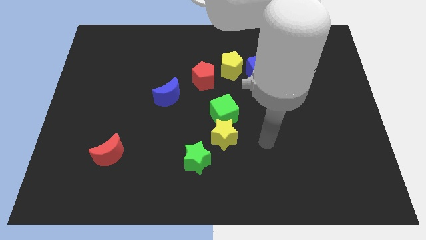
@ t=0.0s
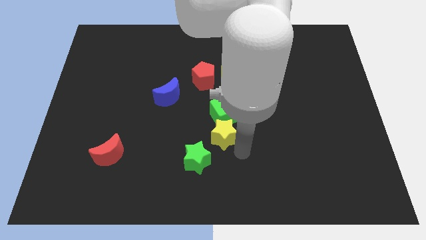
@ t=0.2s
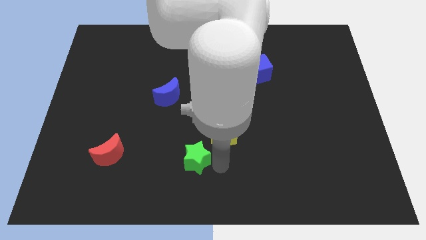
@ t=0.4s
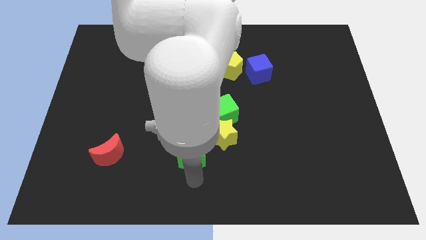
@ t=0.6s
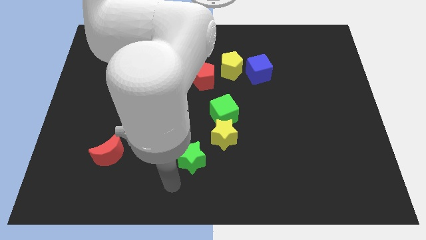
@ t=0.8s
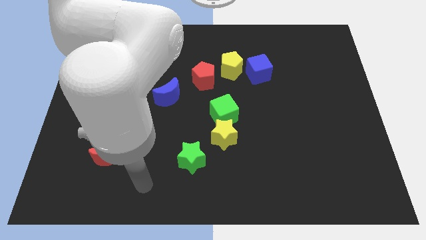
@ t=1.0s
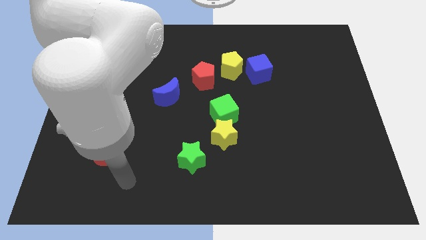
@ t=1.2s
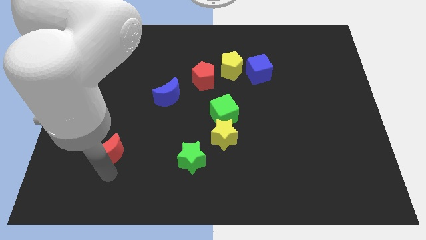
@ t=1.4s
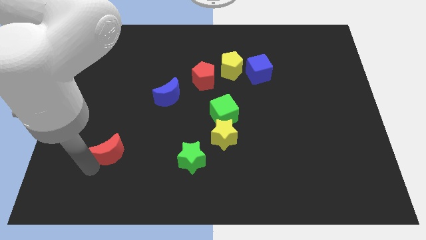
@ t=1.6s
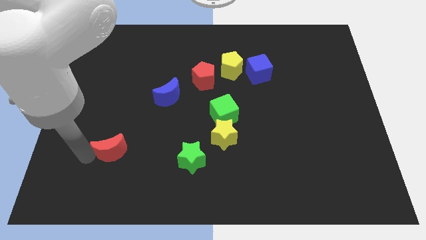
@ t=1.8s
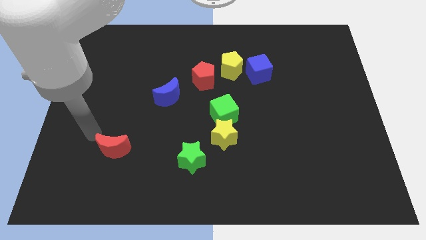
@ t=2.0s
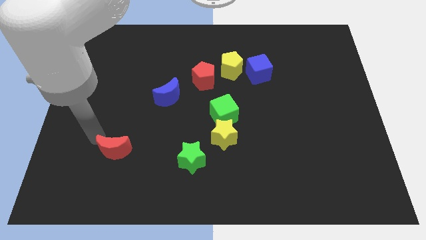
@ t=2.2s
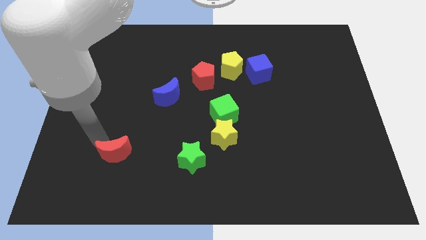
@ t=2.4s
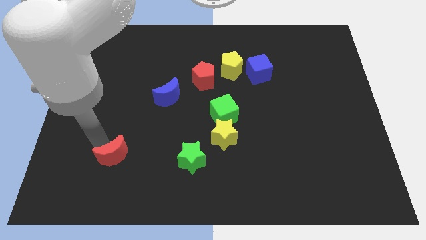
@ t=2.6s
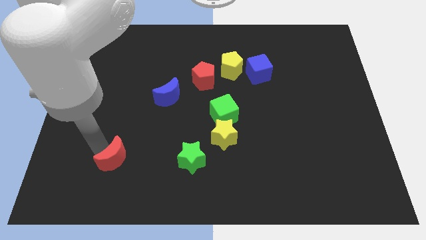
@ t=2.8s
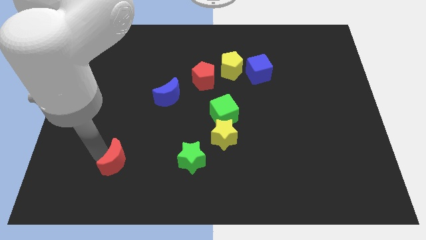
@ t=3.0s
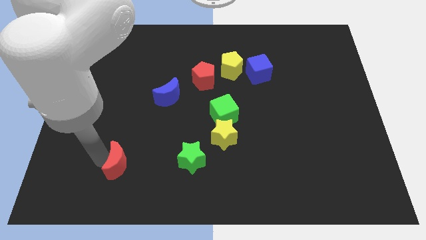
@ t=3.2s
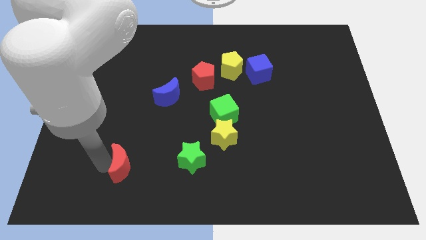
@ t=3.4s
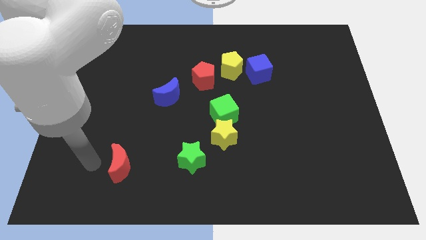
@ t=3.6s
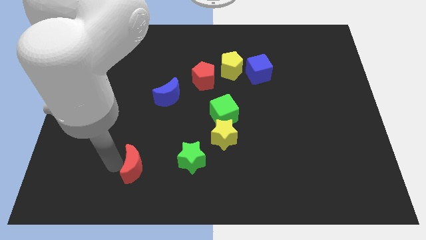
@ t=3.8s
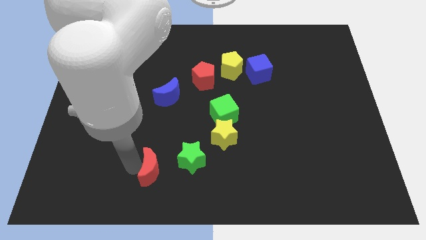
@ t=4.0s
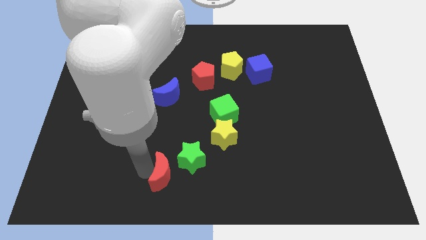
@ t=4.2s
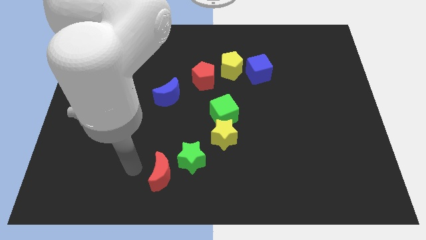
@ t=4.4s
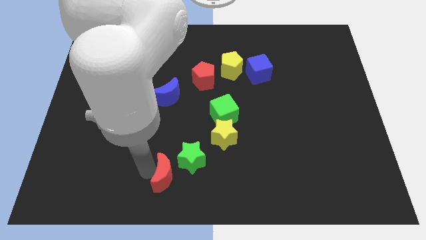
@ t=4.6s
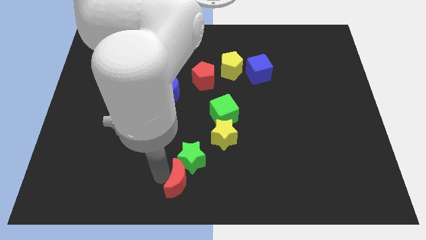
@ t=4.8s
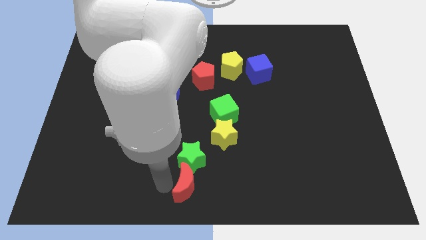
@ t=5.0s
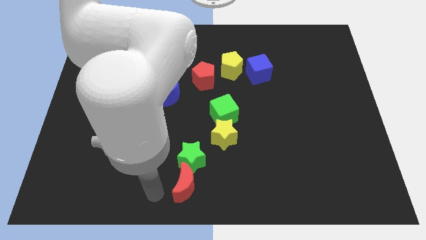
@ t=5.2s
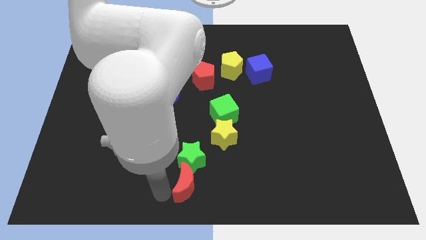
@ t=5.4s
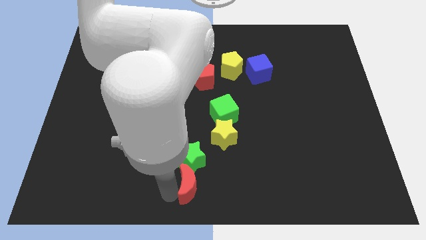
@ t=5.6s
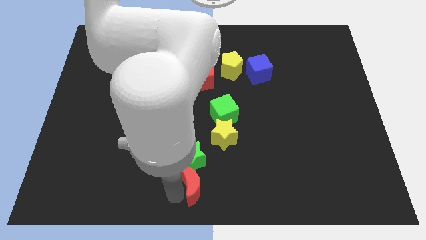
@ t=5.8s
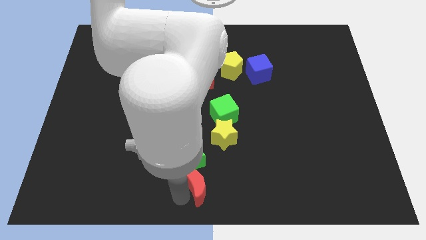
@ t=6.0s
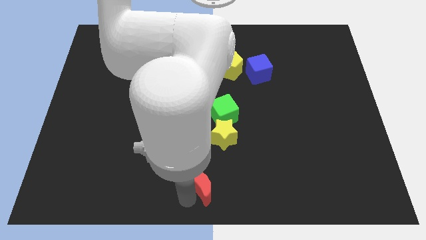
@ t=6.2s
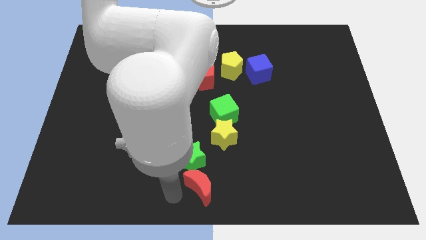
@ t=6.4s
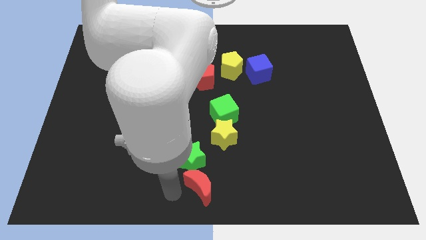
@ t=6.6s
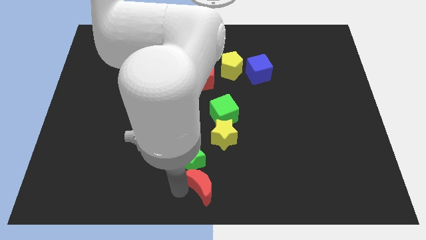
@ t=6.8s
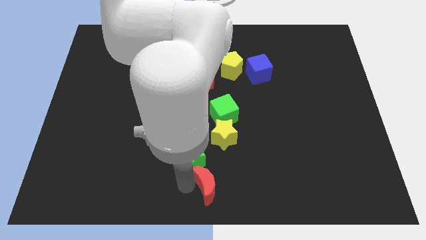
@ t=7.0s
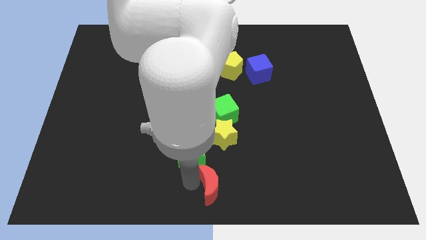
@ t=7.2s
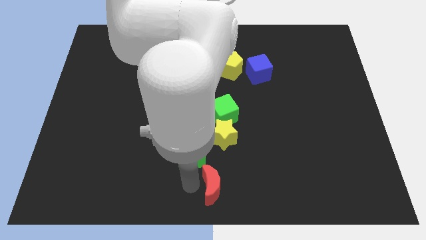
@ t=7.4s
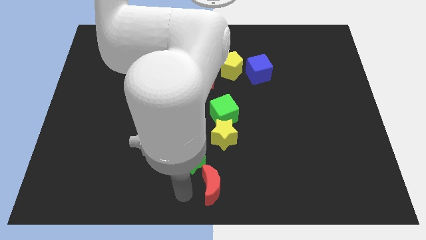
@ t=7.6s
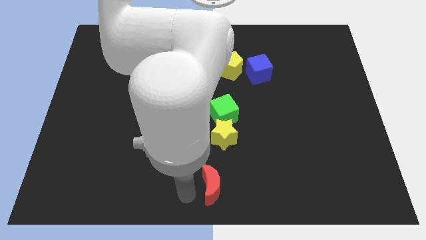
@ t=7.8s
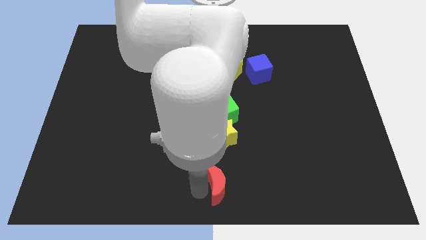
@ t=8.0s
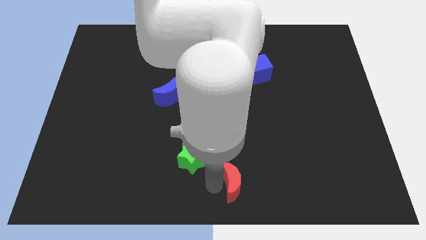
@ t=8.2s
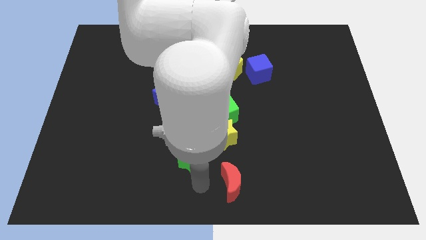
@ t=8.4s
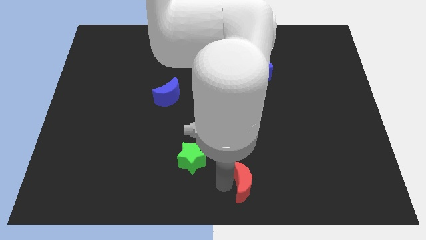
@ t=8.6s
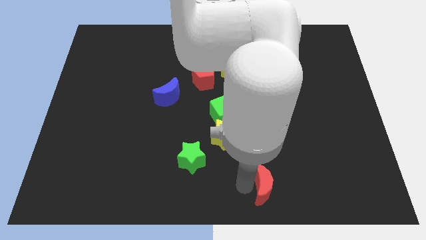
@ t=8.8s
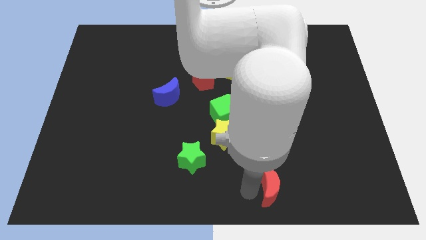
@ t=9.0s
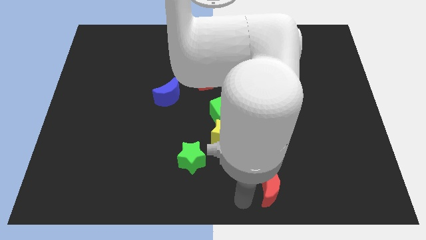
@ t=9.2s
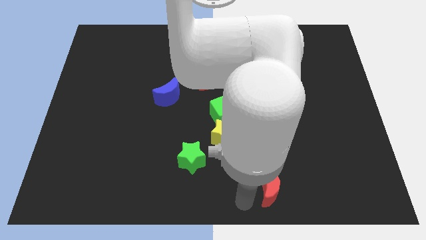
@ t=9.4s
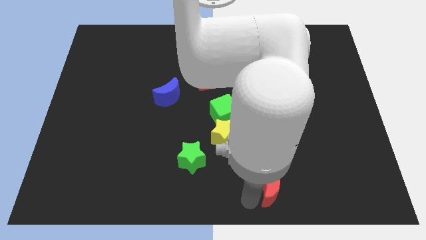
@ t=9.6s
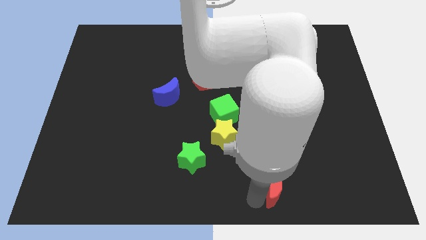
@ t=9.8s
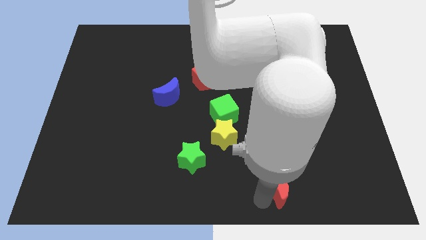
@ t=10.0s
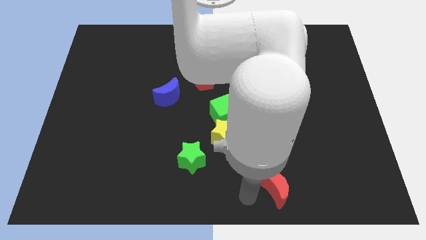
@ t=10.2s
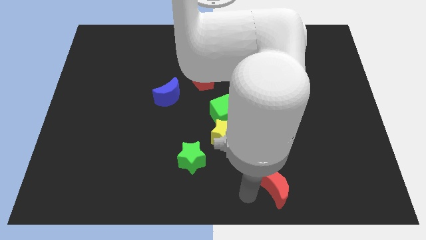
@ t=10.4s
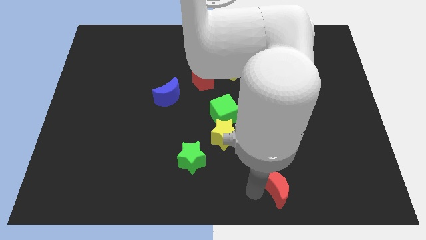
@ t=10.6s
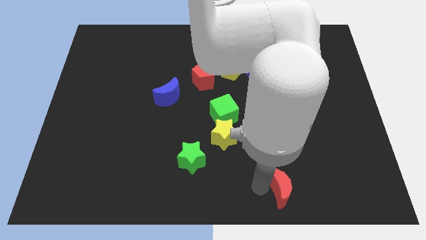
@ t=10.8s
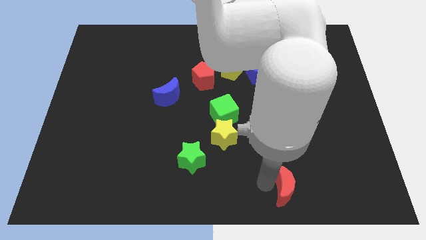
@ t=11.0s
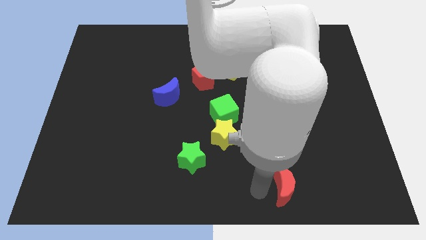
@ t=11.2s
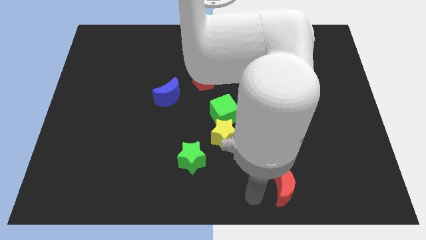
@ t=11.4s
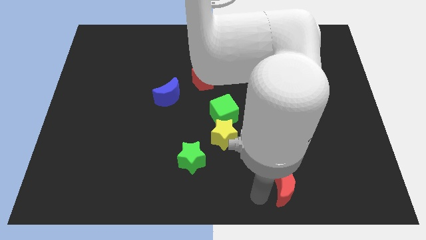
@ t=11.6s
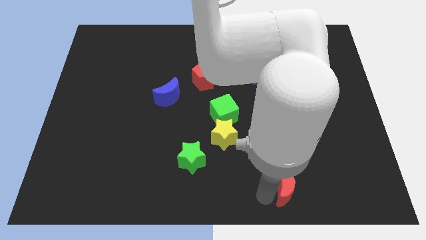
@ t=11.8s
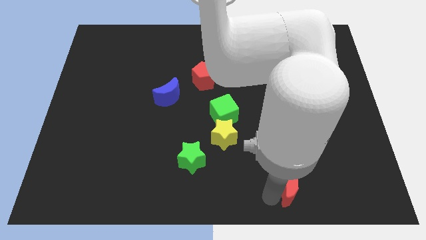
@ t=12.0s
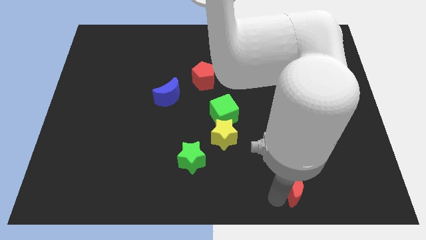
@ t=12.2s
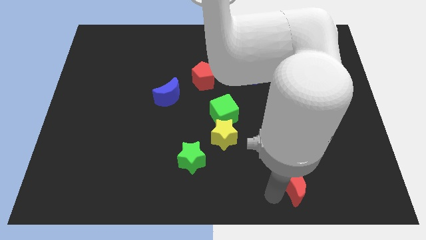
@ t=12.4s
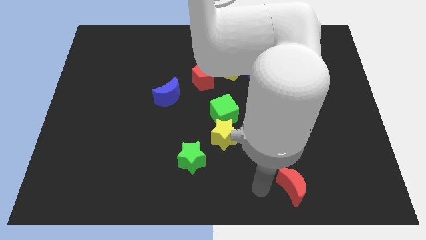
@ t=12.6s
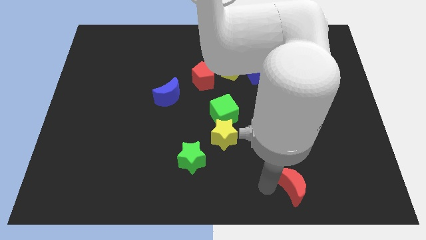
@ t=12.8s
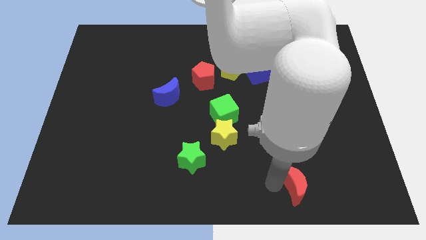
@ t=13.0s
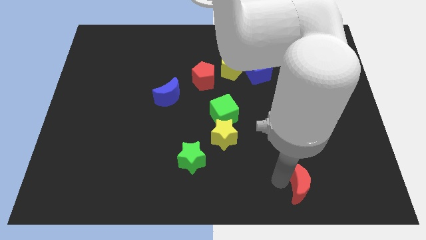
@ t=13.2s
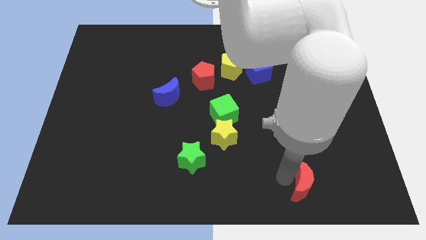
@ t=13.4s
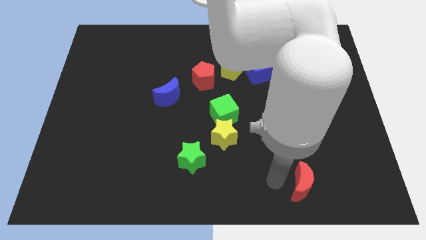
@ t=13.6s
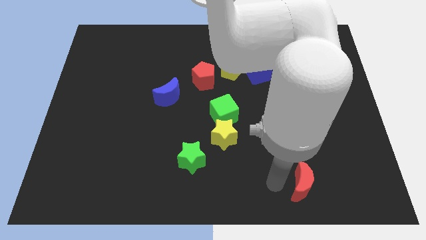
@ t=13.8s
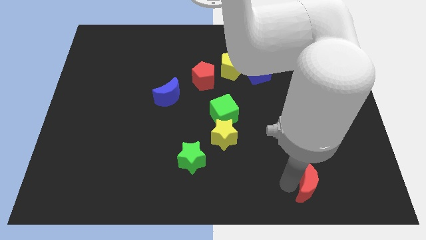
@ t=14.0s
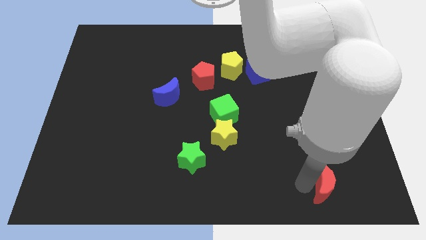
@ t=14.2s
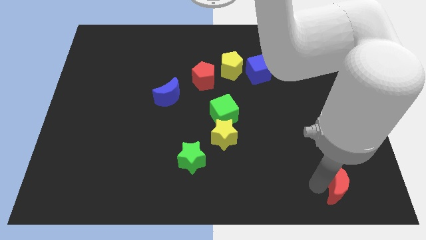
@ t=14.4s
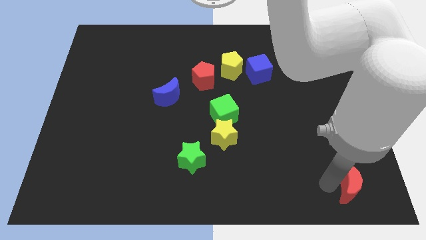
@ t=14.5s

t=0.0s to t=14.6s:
move the red moon to the lower right corner
